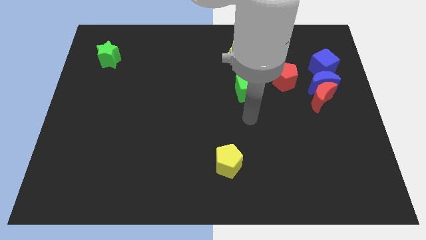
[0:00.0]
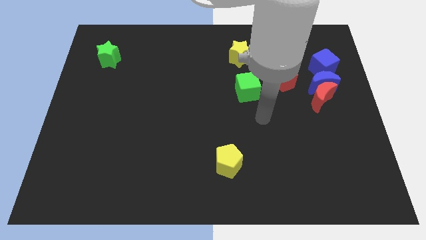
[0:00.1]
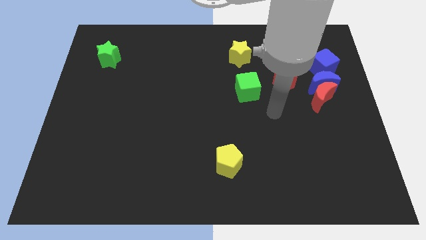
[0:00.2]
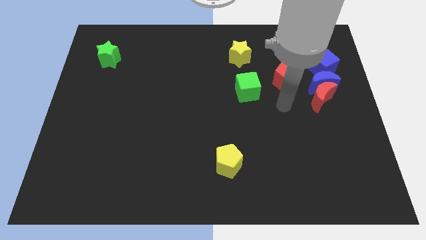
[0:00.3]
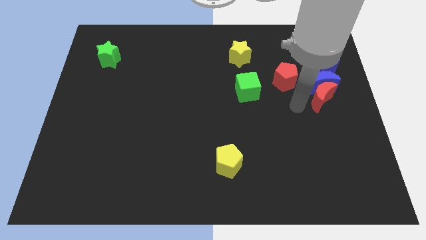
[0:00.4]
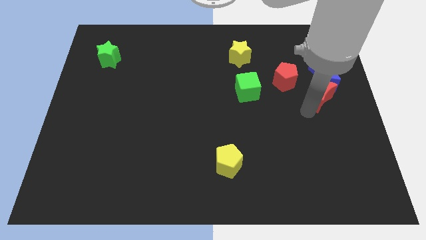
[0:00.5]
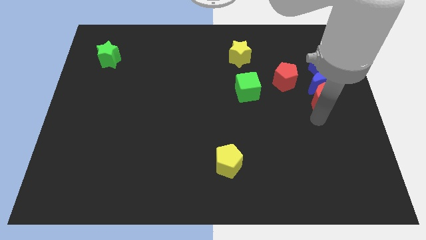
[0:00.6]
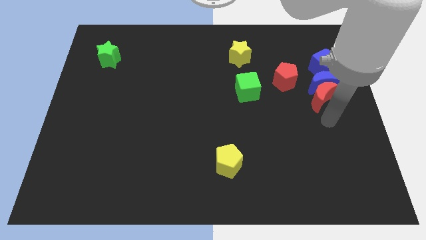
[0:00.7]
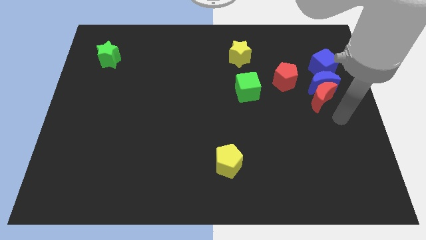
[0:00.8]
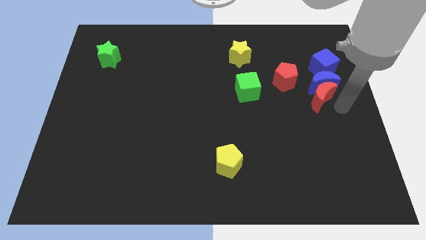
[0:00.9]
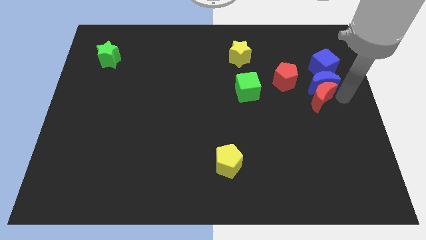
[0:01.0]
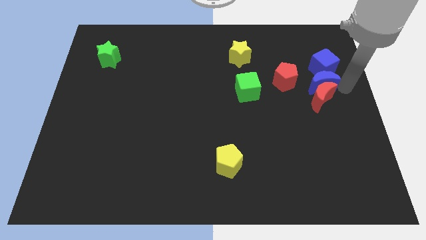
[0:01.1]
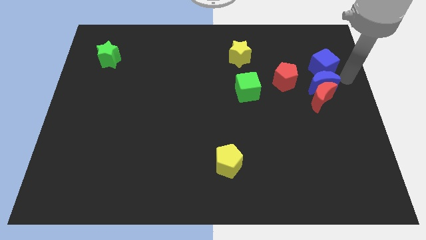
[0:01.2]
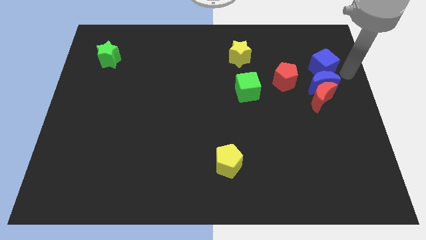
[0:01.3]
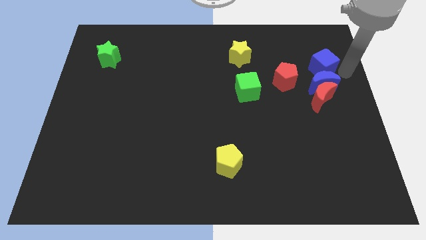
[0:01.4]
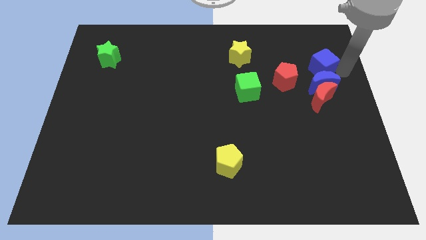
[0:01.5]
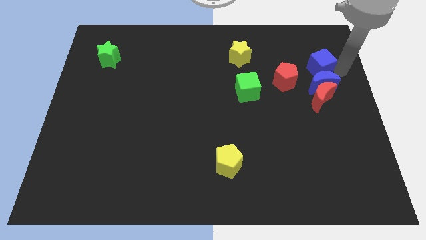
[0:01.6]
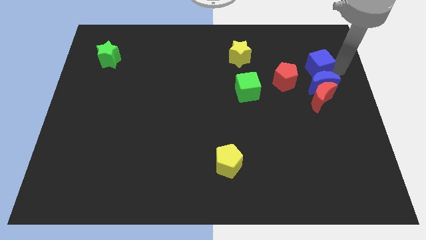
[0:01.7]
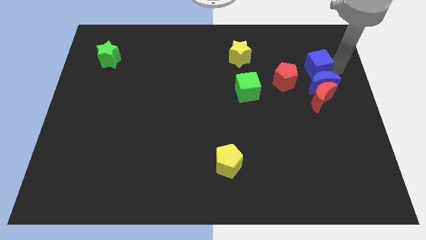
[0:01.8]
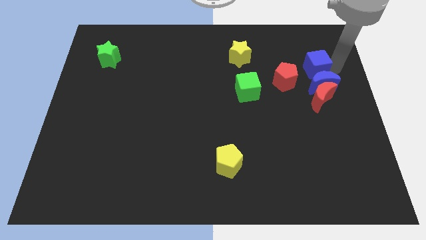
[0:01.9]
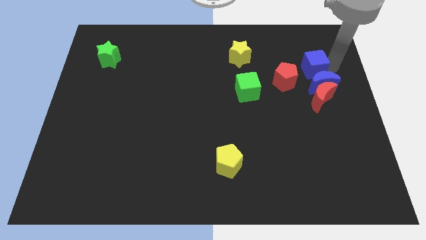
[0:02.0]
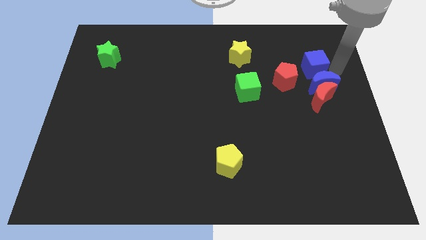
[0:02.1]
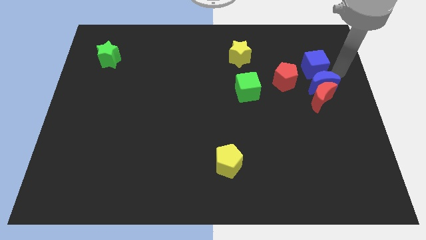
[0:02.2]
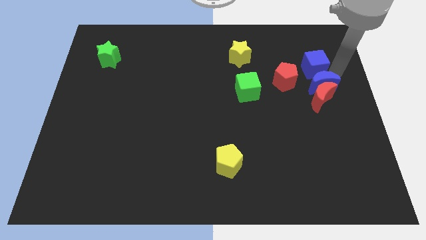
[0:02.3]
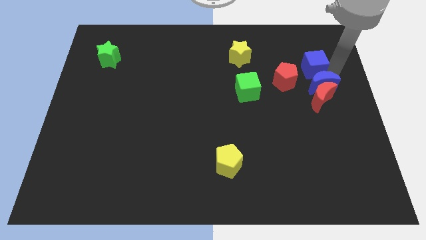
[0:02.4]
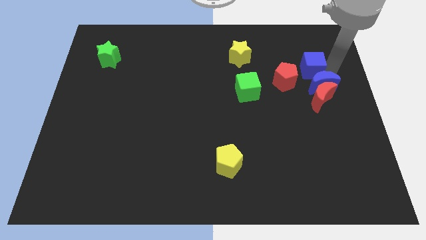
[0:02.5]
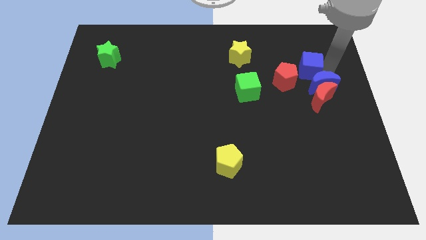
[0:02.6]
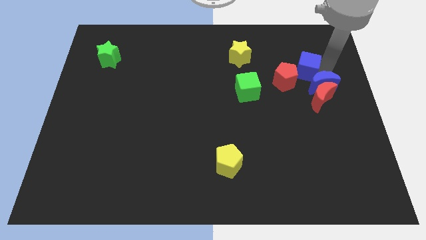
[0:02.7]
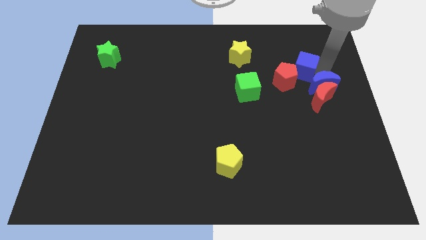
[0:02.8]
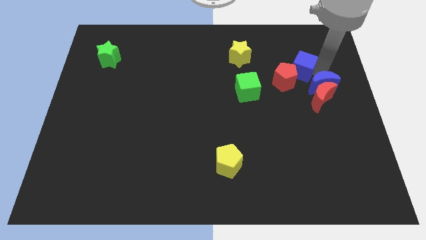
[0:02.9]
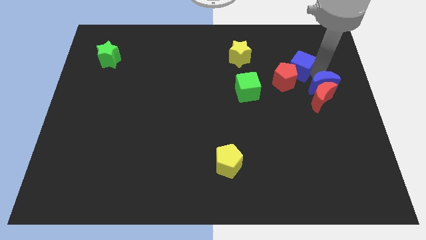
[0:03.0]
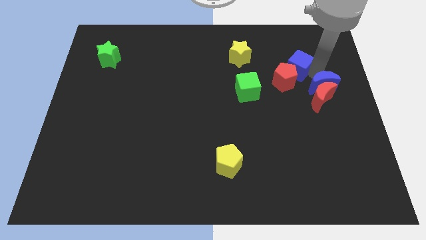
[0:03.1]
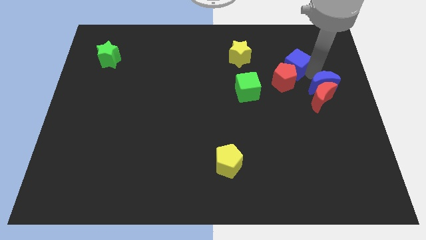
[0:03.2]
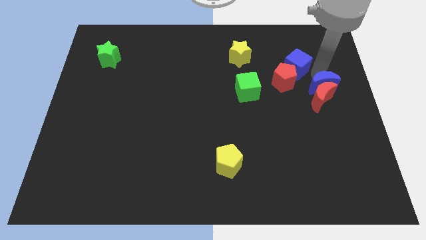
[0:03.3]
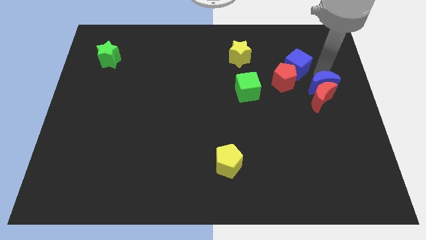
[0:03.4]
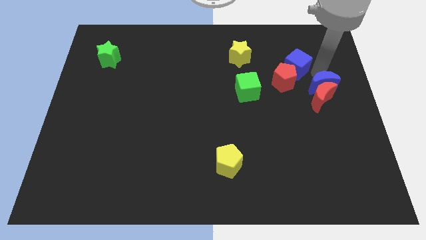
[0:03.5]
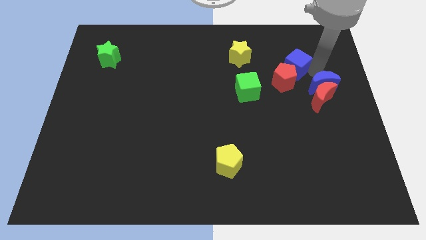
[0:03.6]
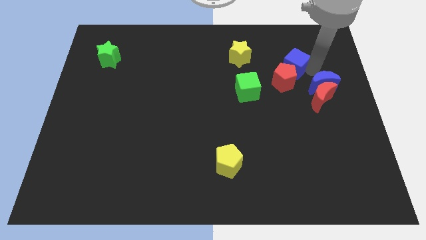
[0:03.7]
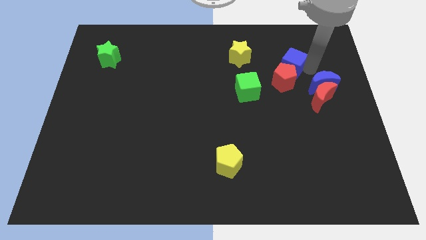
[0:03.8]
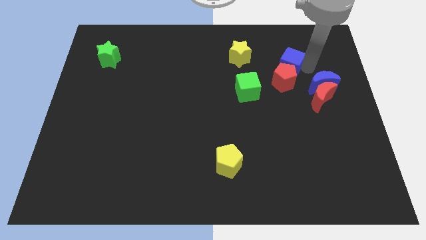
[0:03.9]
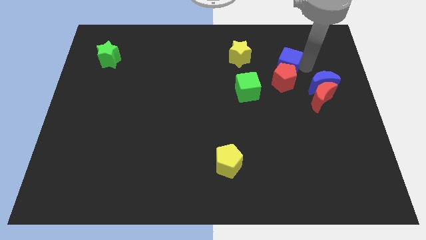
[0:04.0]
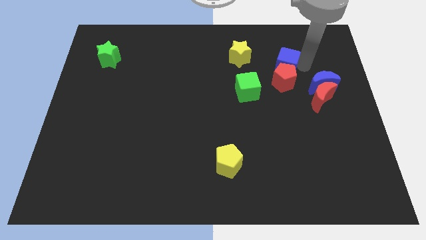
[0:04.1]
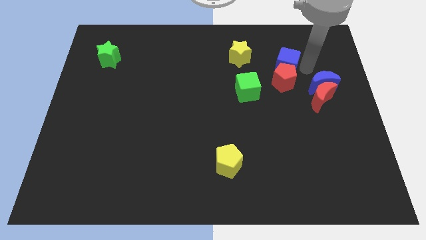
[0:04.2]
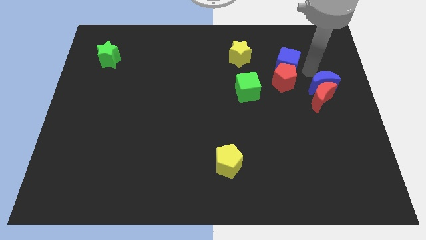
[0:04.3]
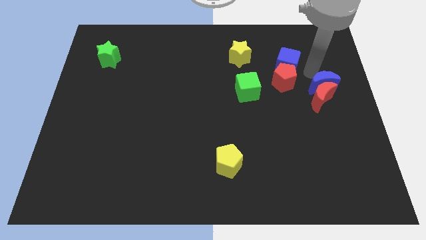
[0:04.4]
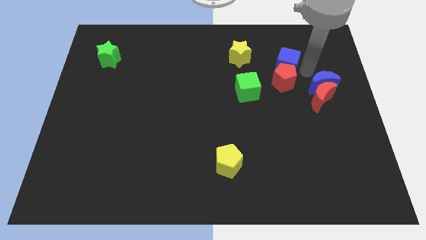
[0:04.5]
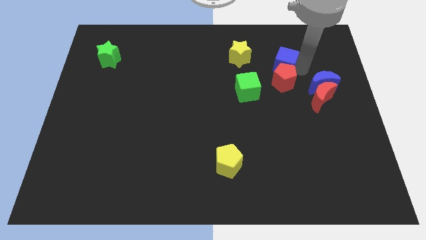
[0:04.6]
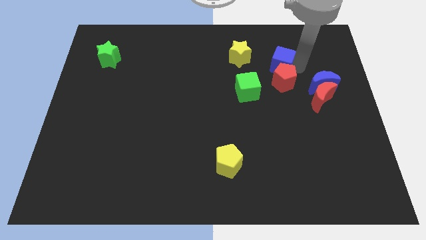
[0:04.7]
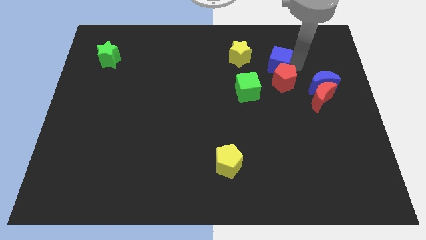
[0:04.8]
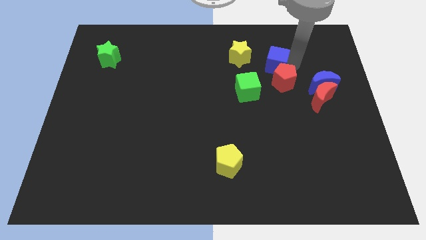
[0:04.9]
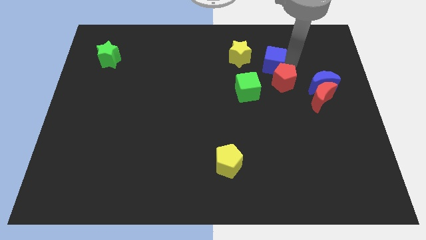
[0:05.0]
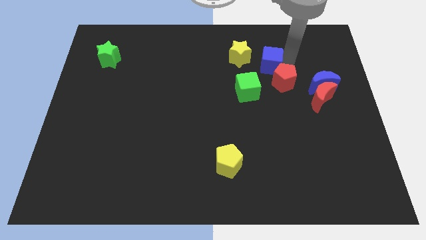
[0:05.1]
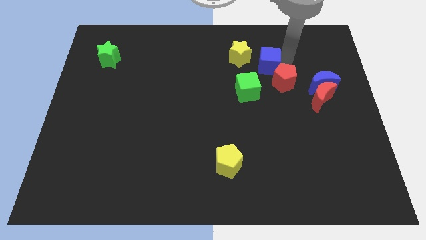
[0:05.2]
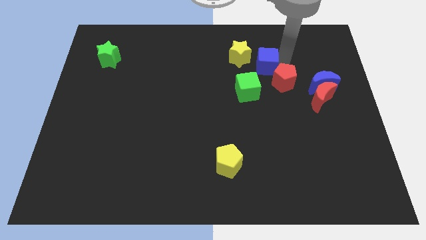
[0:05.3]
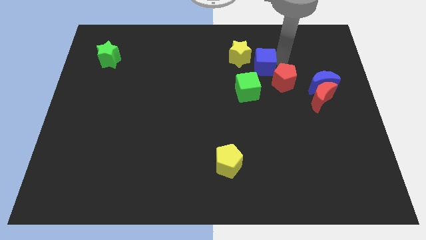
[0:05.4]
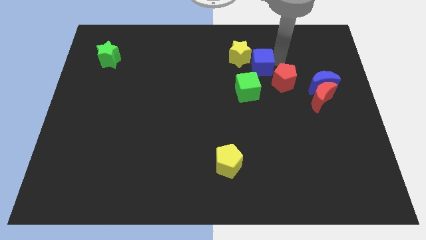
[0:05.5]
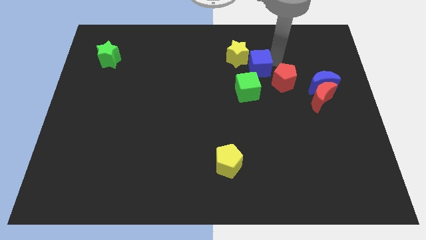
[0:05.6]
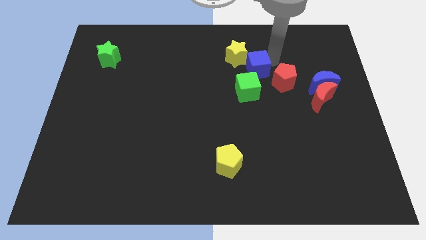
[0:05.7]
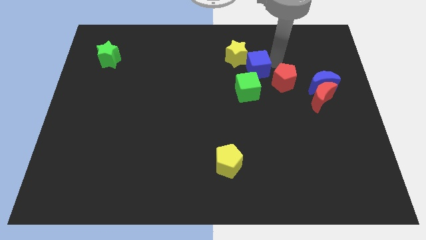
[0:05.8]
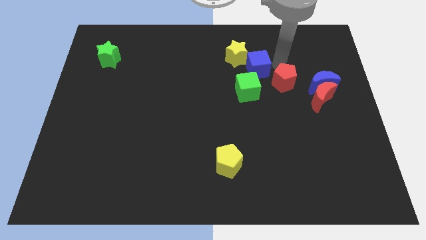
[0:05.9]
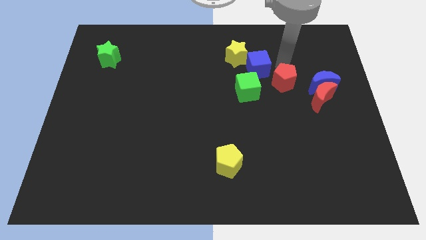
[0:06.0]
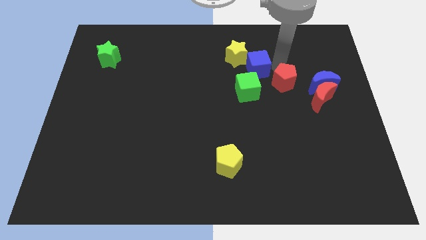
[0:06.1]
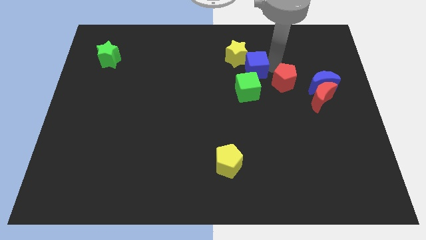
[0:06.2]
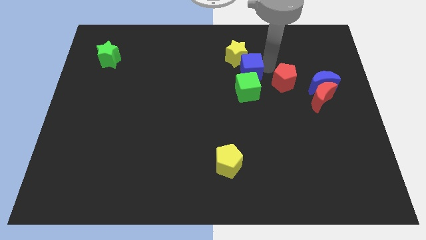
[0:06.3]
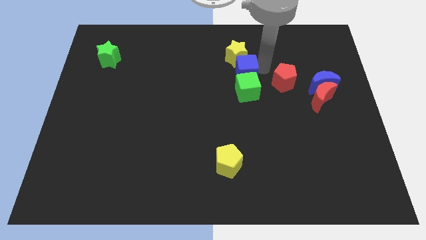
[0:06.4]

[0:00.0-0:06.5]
slide the blue cube to the left

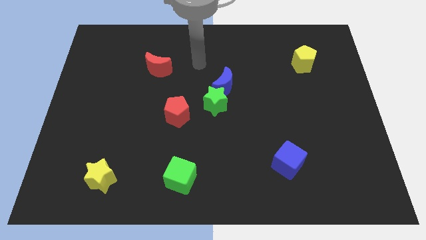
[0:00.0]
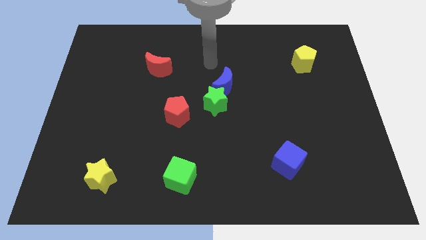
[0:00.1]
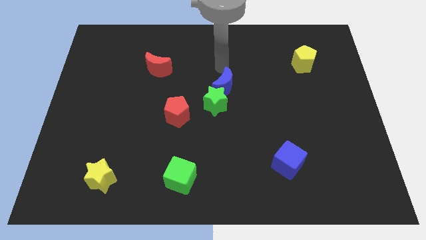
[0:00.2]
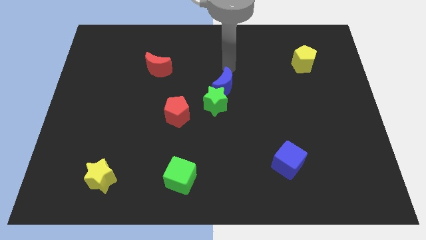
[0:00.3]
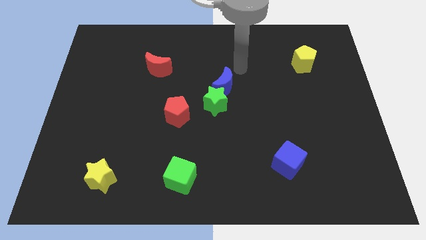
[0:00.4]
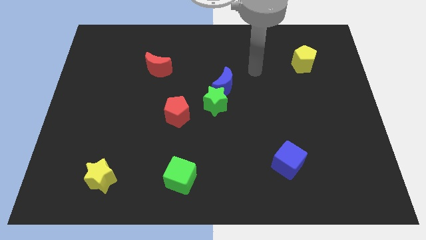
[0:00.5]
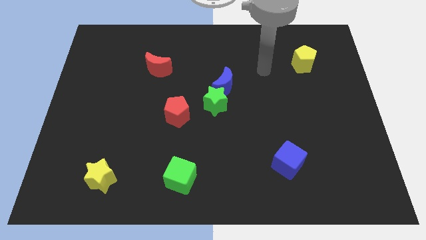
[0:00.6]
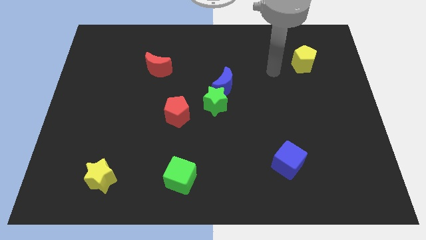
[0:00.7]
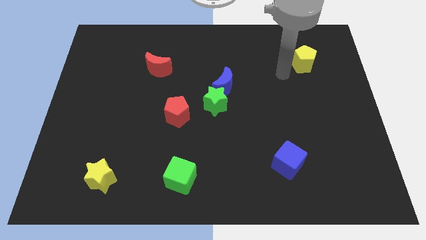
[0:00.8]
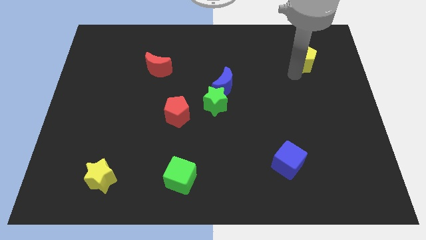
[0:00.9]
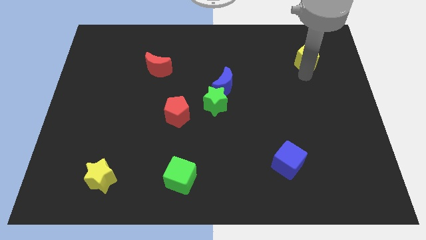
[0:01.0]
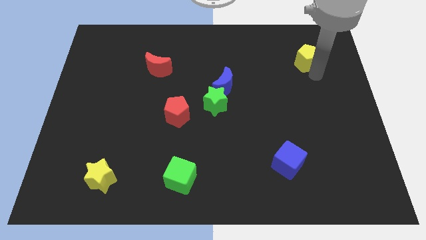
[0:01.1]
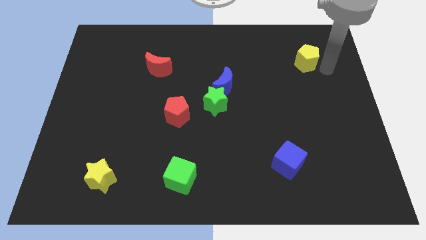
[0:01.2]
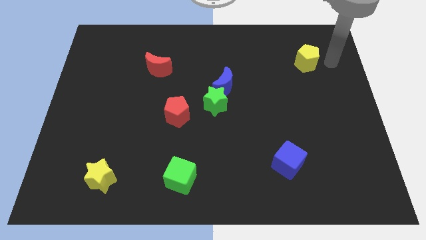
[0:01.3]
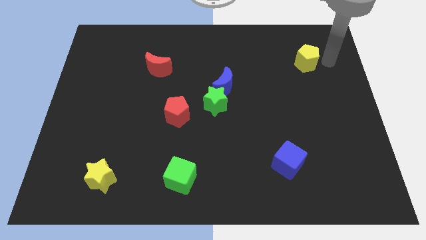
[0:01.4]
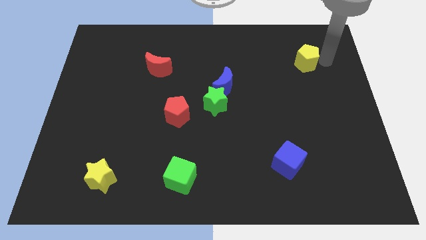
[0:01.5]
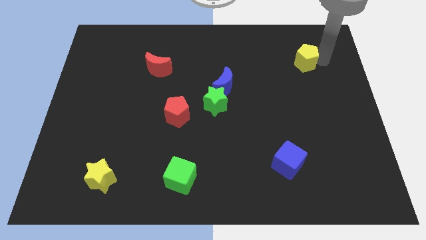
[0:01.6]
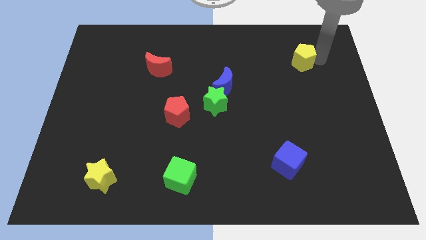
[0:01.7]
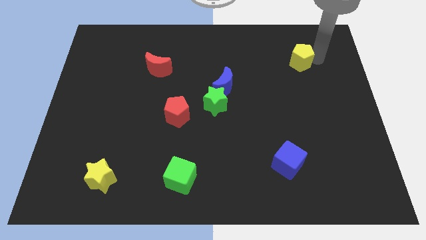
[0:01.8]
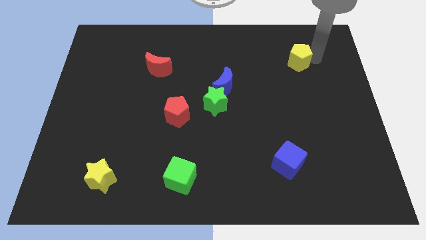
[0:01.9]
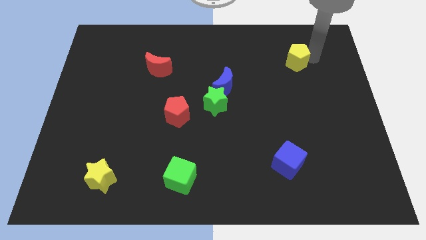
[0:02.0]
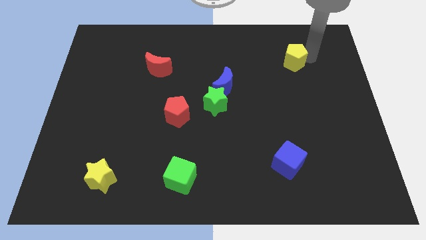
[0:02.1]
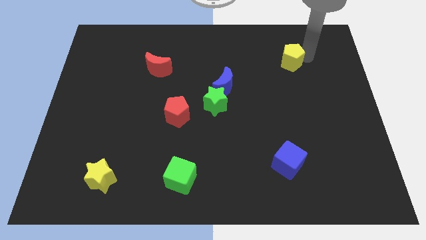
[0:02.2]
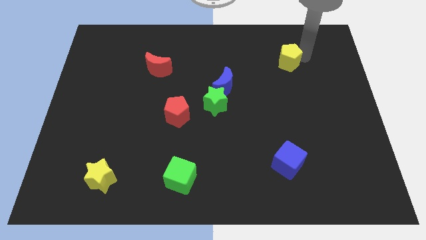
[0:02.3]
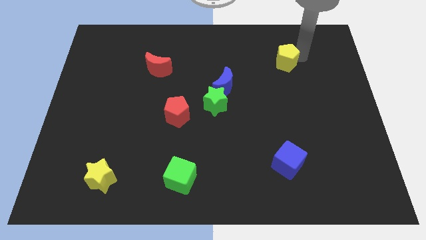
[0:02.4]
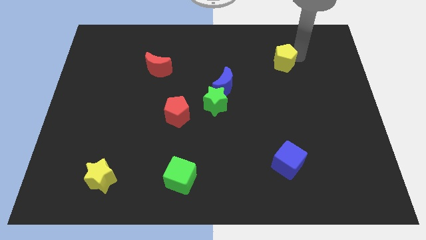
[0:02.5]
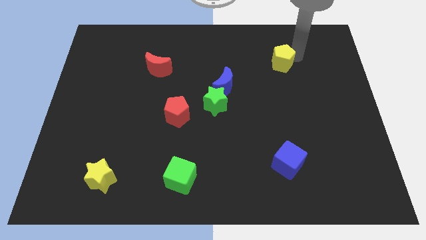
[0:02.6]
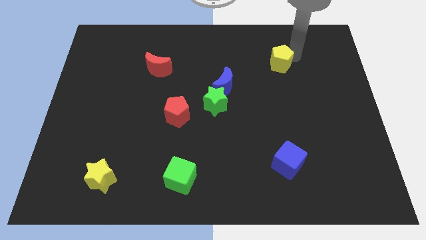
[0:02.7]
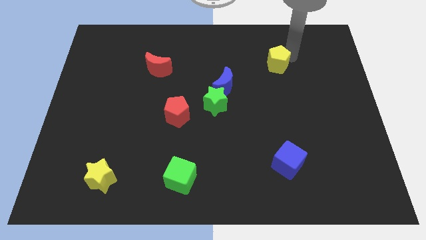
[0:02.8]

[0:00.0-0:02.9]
slightly move the yellow pentagon to the left
